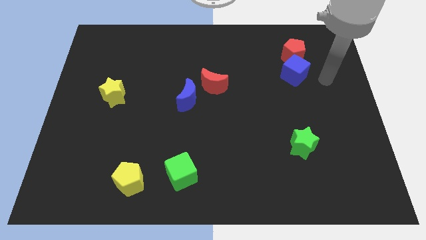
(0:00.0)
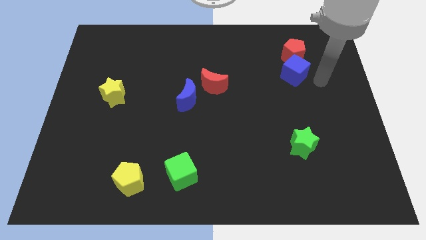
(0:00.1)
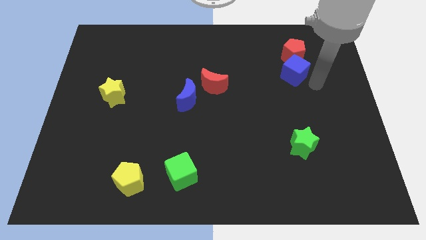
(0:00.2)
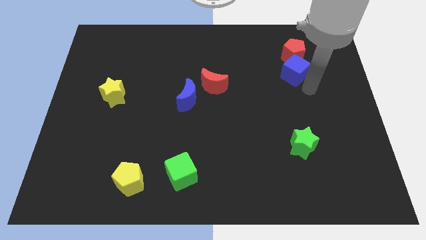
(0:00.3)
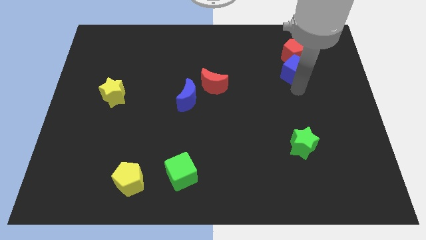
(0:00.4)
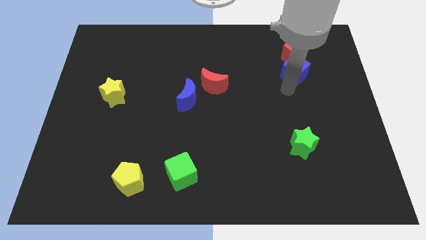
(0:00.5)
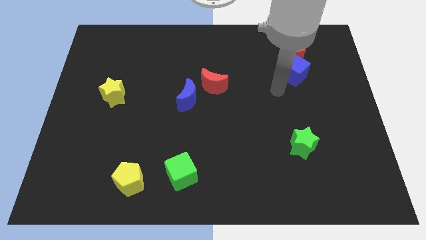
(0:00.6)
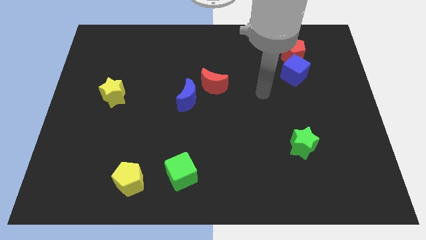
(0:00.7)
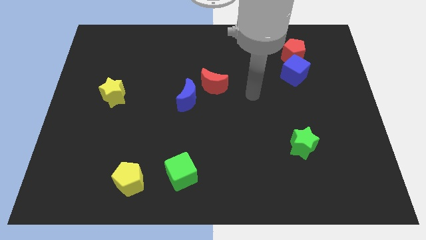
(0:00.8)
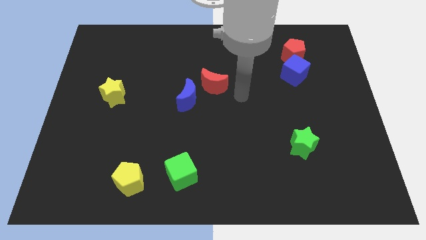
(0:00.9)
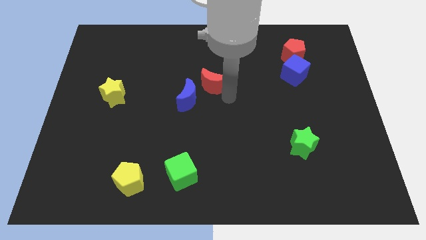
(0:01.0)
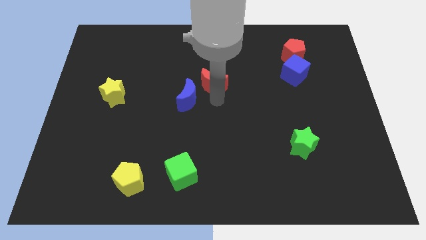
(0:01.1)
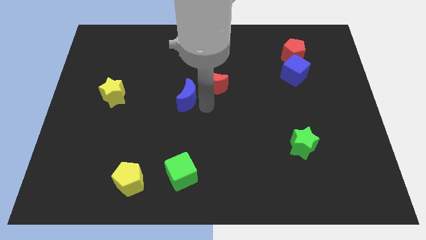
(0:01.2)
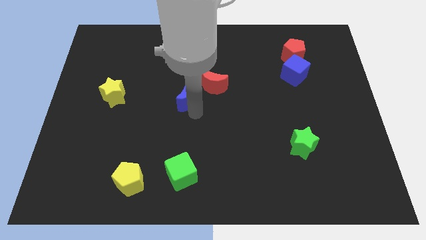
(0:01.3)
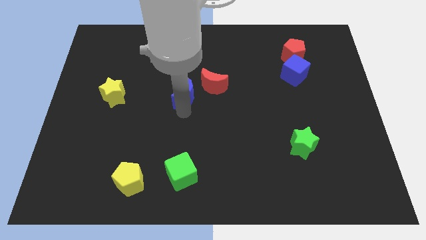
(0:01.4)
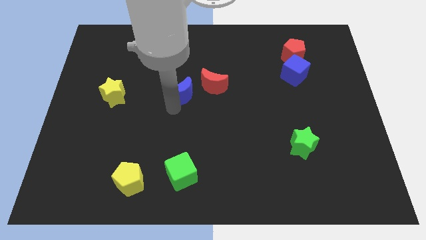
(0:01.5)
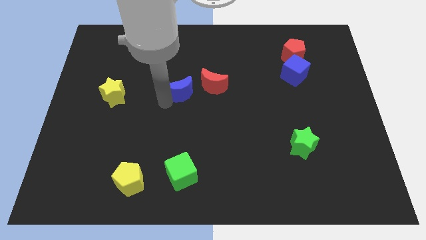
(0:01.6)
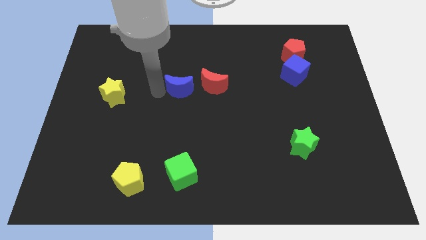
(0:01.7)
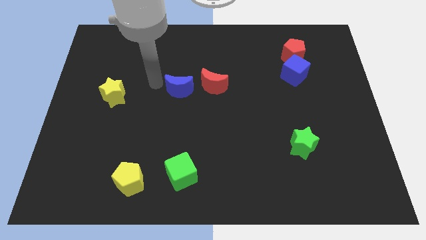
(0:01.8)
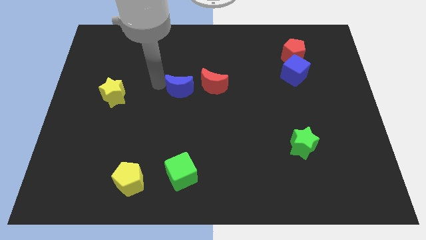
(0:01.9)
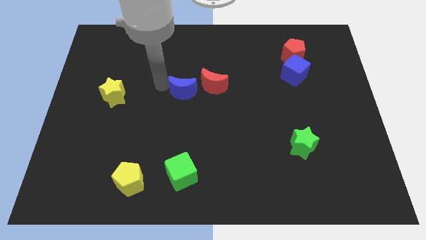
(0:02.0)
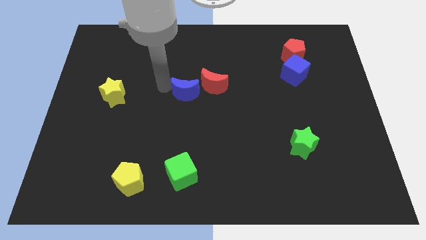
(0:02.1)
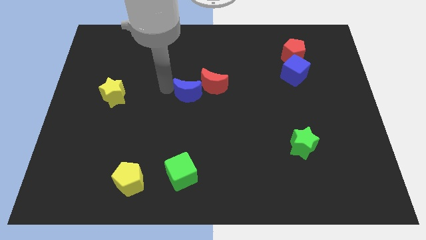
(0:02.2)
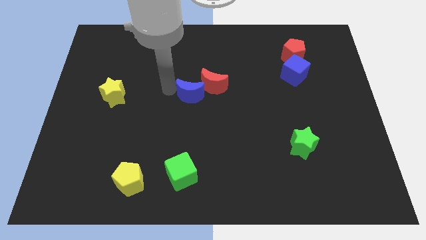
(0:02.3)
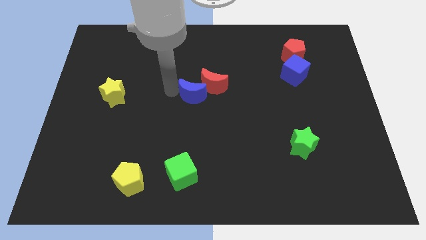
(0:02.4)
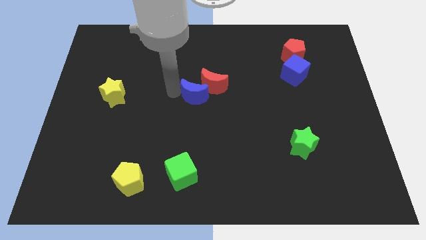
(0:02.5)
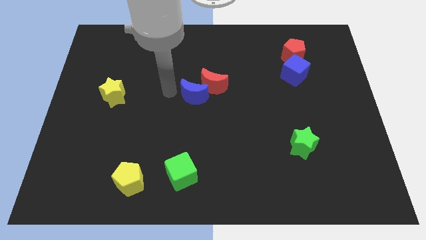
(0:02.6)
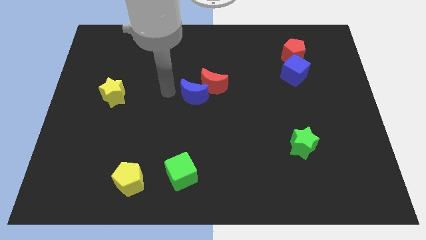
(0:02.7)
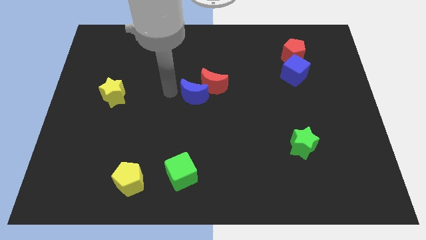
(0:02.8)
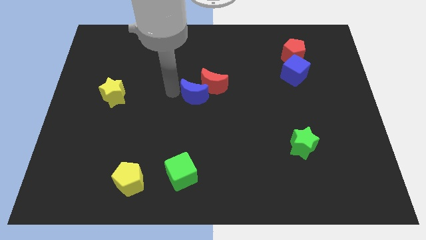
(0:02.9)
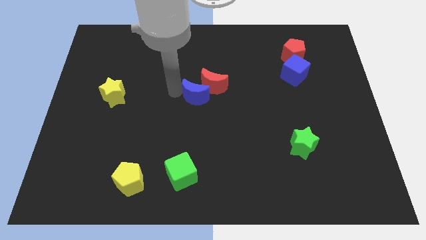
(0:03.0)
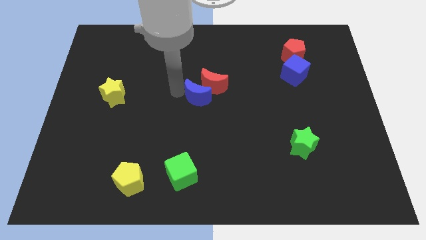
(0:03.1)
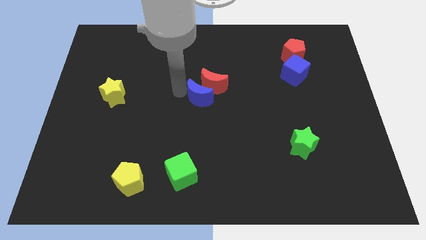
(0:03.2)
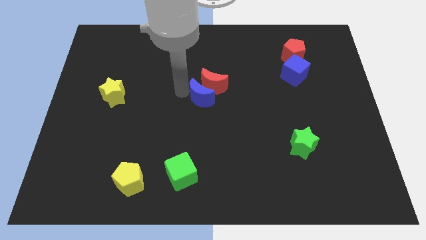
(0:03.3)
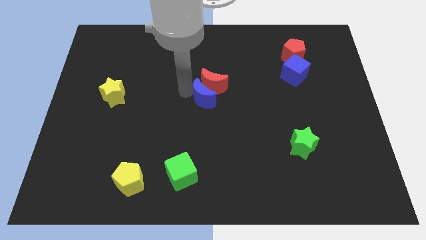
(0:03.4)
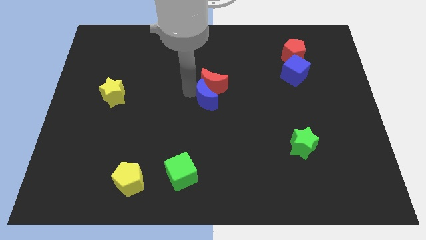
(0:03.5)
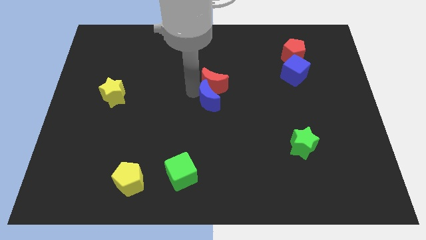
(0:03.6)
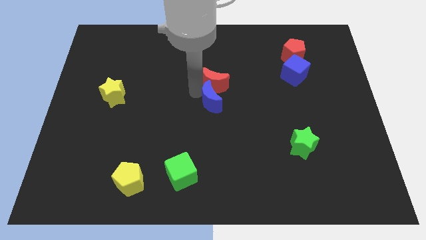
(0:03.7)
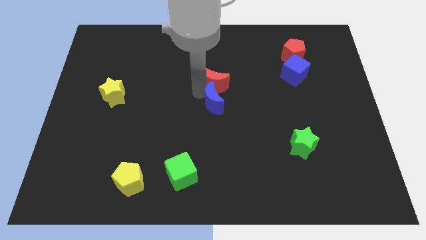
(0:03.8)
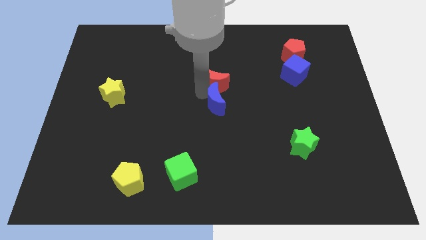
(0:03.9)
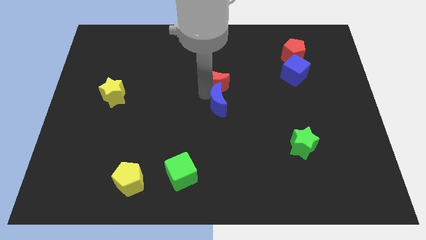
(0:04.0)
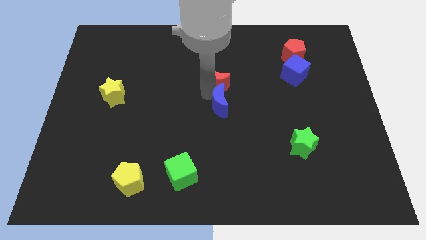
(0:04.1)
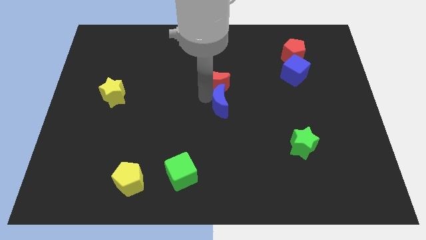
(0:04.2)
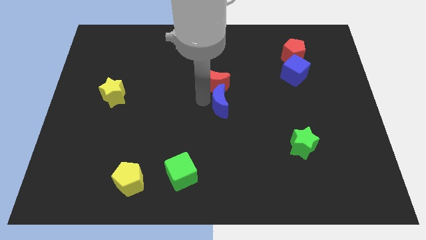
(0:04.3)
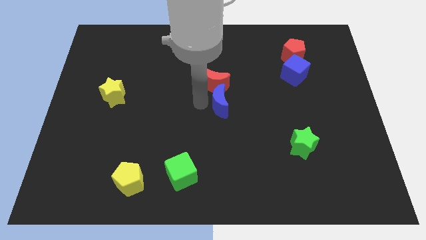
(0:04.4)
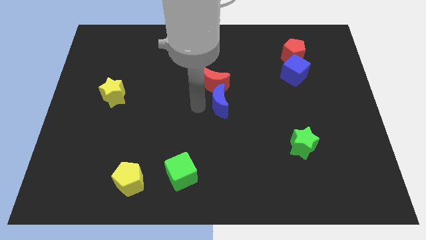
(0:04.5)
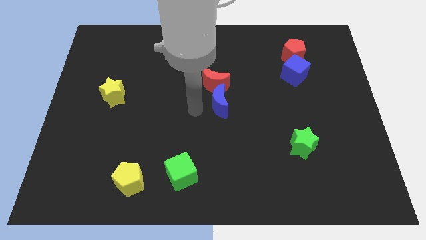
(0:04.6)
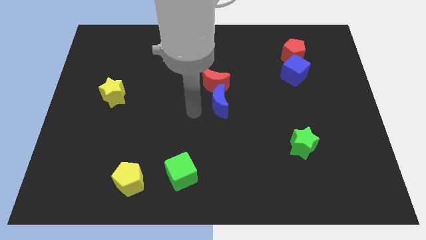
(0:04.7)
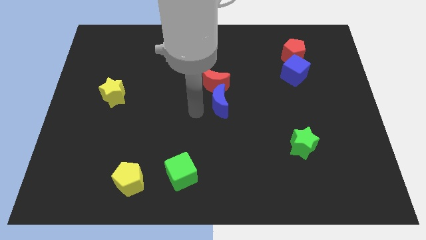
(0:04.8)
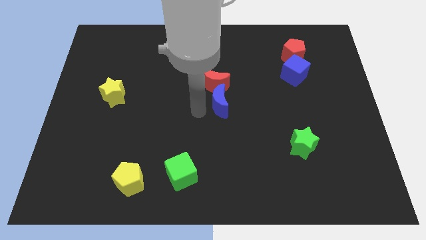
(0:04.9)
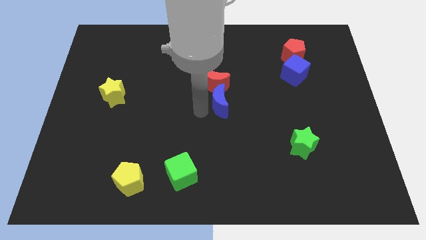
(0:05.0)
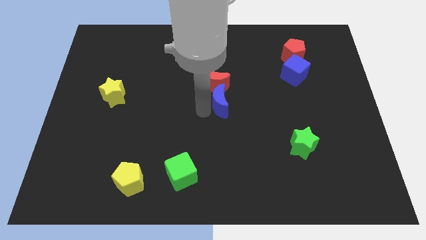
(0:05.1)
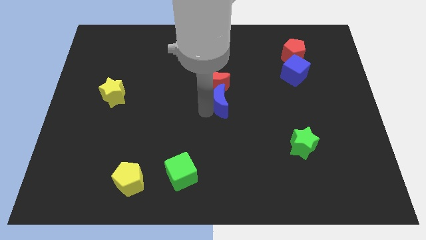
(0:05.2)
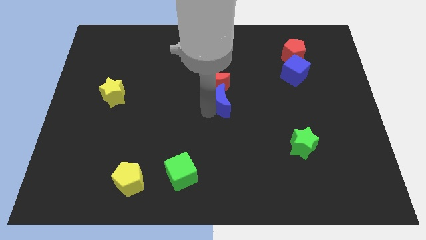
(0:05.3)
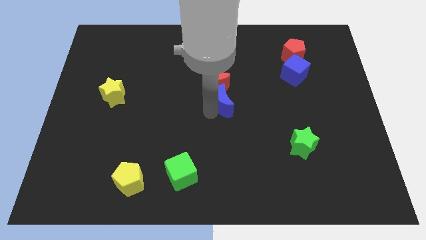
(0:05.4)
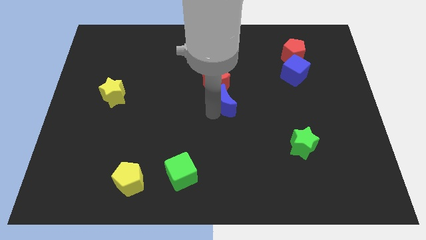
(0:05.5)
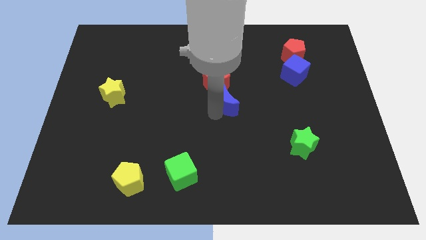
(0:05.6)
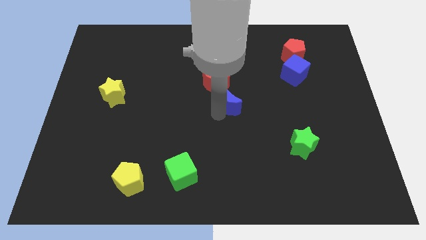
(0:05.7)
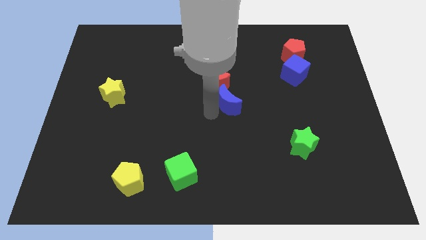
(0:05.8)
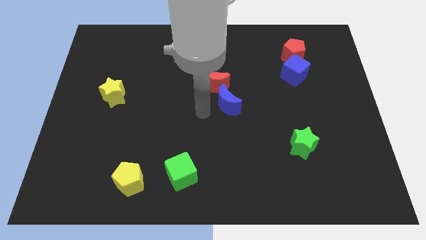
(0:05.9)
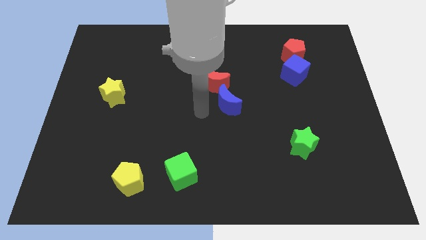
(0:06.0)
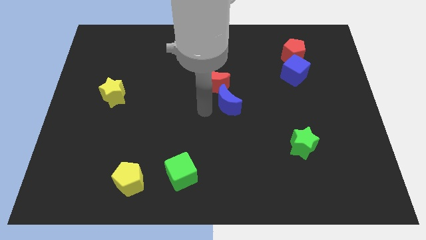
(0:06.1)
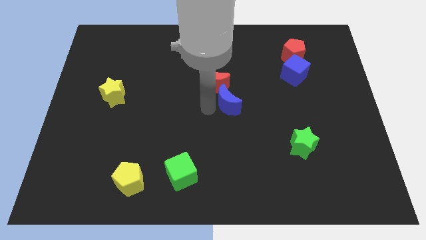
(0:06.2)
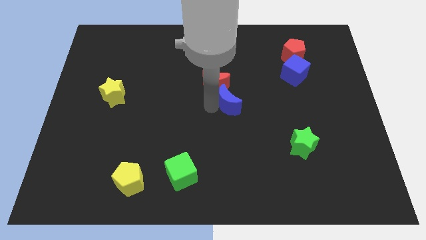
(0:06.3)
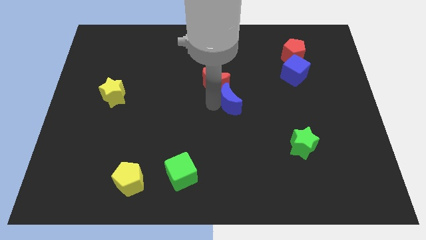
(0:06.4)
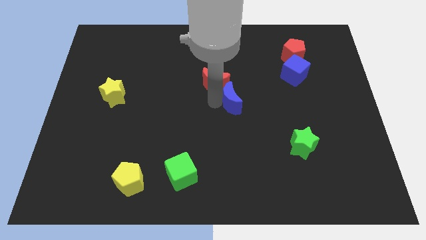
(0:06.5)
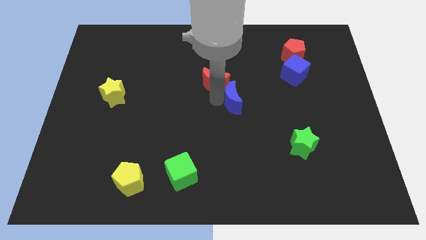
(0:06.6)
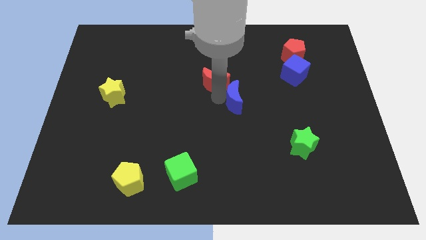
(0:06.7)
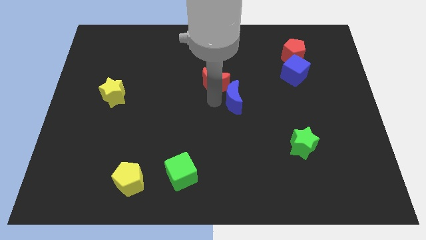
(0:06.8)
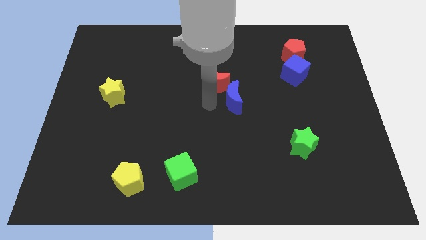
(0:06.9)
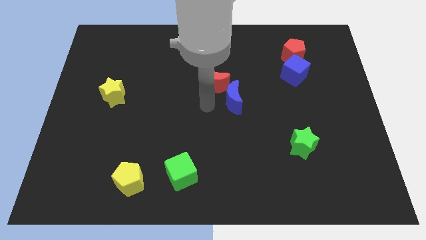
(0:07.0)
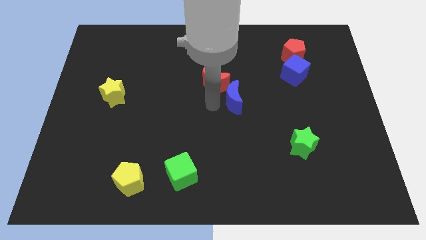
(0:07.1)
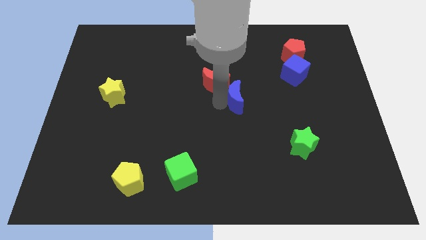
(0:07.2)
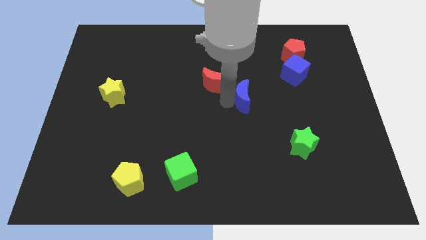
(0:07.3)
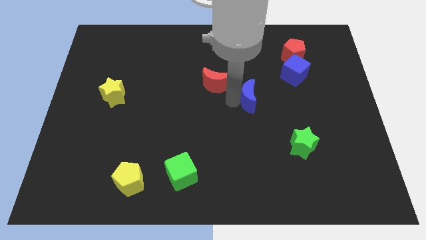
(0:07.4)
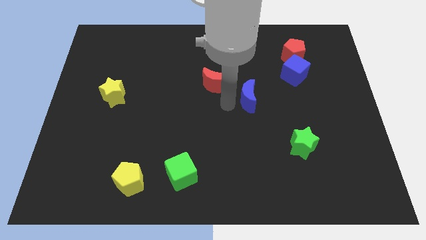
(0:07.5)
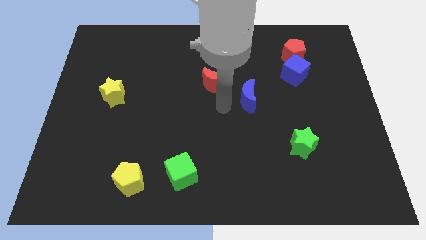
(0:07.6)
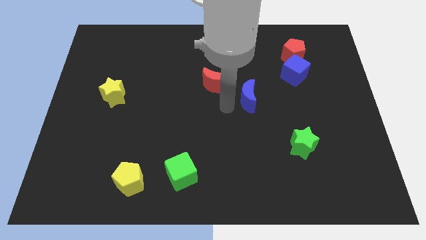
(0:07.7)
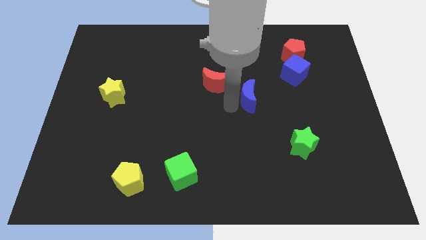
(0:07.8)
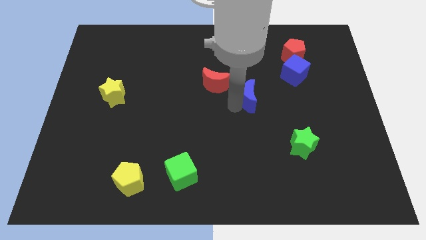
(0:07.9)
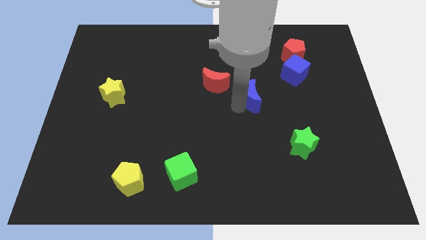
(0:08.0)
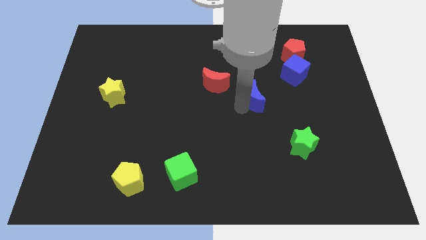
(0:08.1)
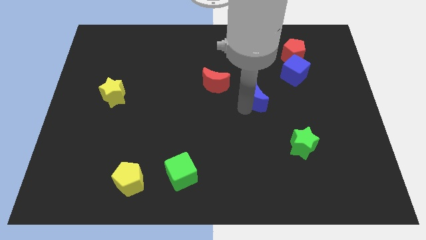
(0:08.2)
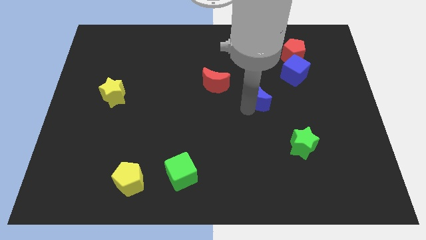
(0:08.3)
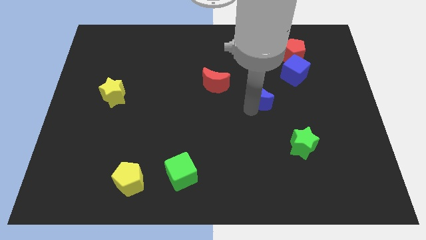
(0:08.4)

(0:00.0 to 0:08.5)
move the blue moon to the bottom left of the blue cube
